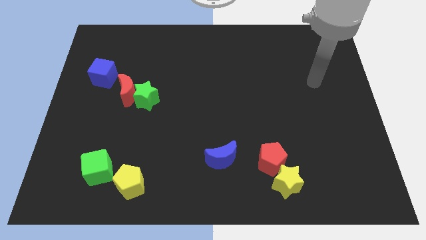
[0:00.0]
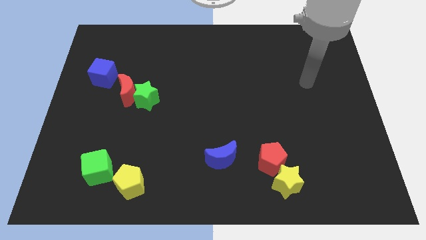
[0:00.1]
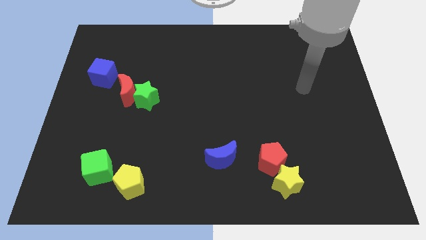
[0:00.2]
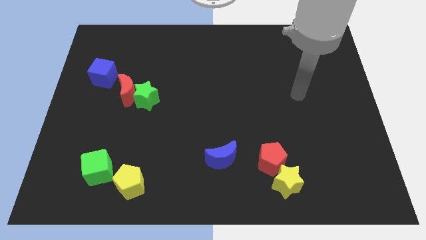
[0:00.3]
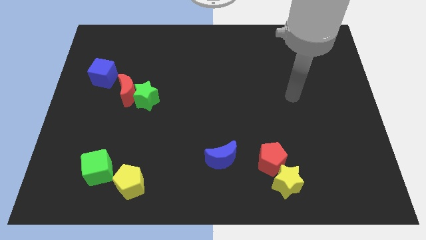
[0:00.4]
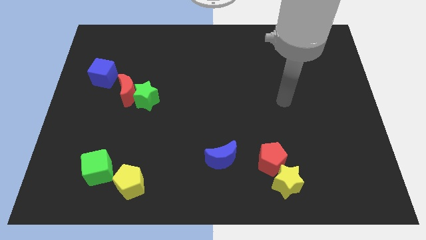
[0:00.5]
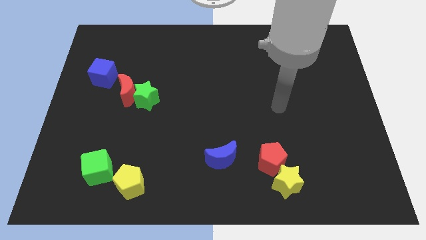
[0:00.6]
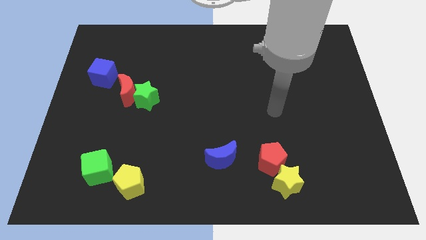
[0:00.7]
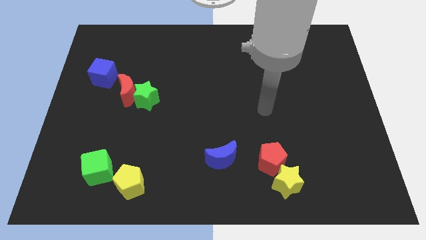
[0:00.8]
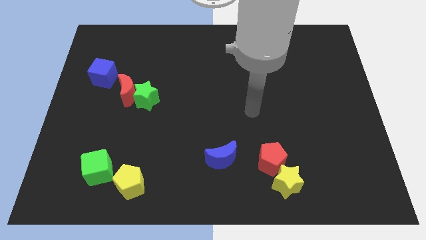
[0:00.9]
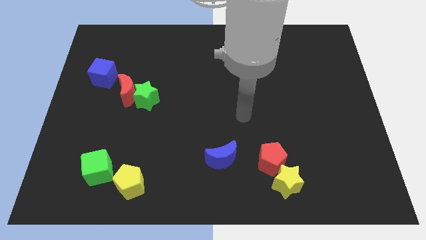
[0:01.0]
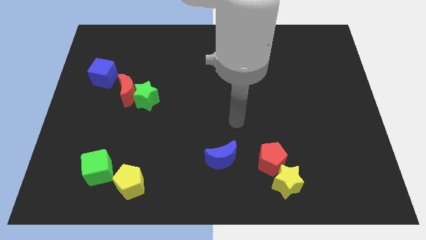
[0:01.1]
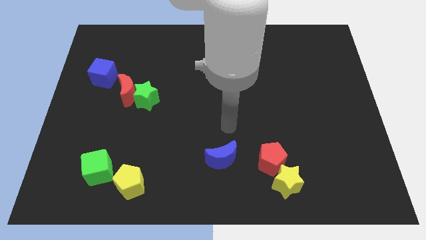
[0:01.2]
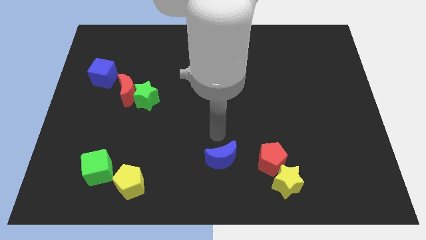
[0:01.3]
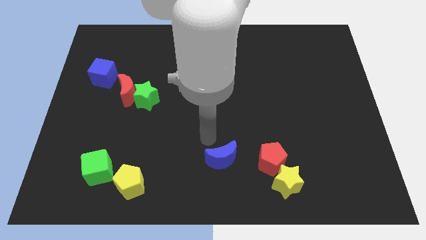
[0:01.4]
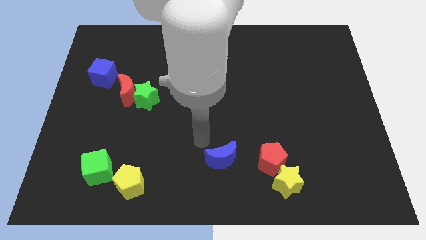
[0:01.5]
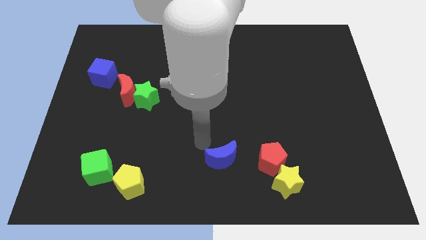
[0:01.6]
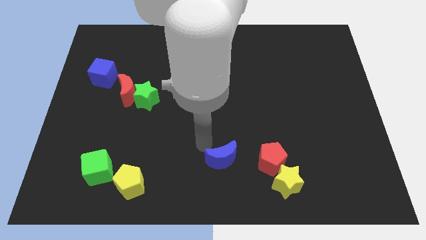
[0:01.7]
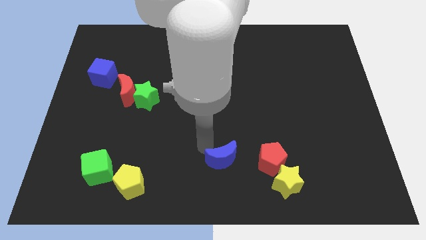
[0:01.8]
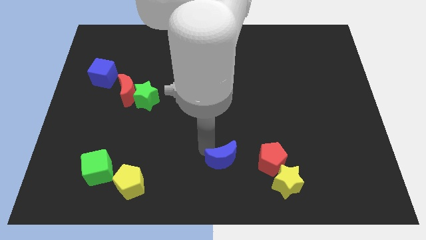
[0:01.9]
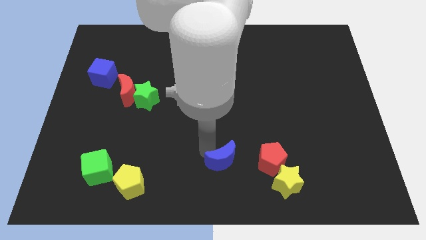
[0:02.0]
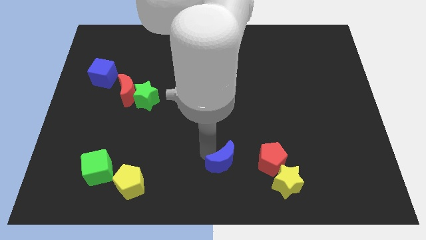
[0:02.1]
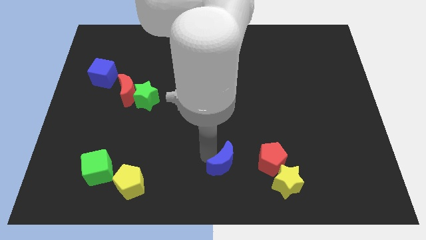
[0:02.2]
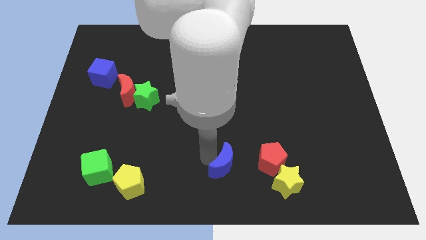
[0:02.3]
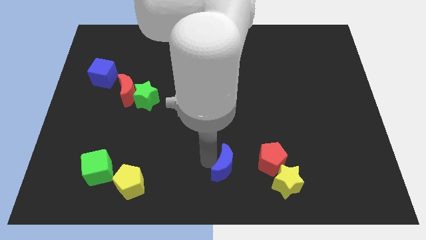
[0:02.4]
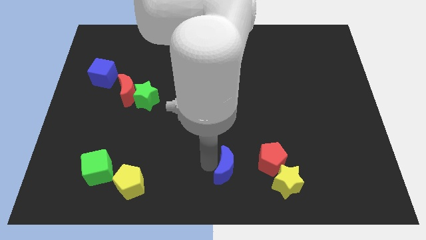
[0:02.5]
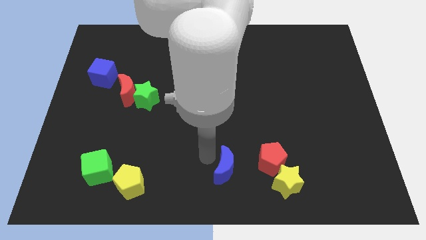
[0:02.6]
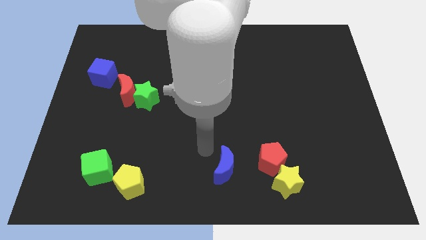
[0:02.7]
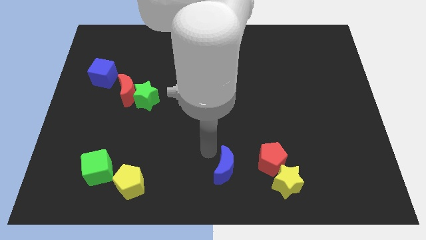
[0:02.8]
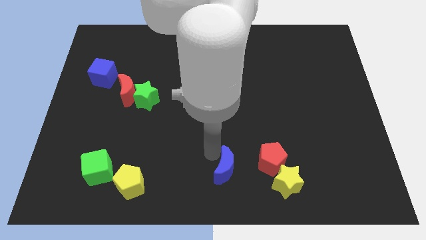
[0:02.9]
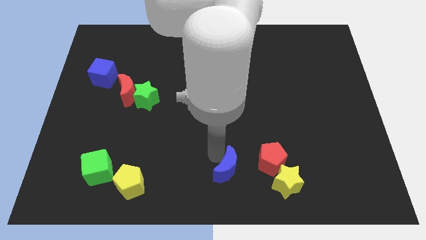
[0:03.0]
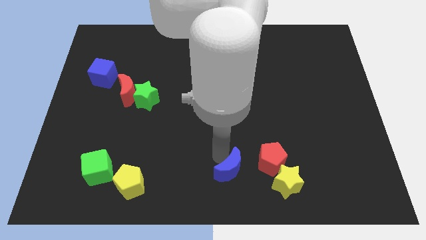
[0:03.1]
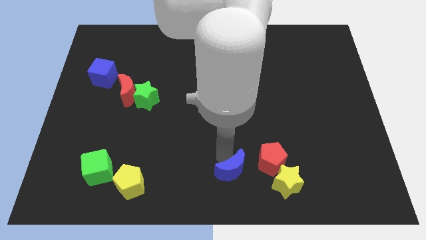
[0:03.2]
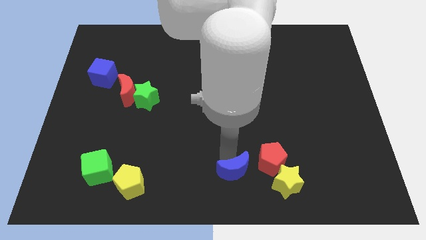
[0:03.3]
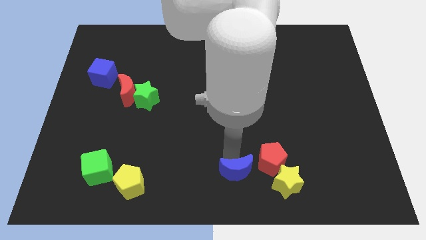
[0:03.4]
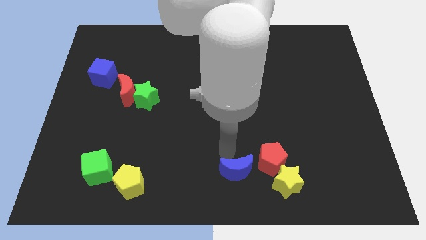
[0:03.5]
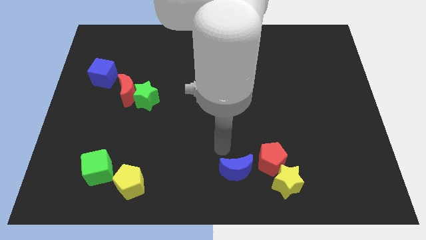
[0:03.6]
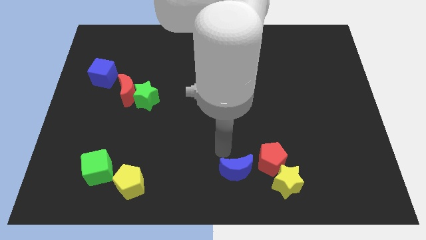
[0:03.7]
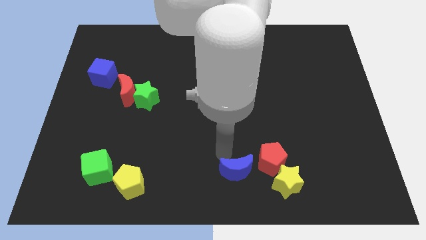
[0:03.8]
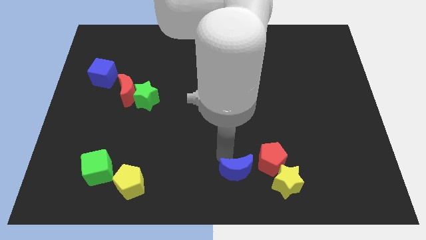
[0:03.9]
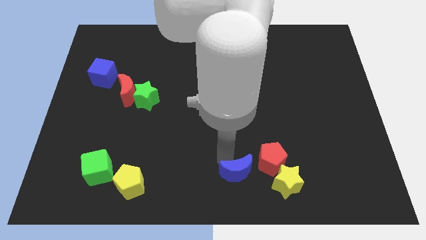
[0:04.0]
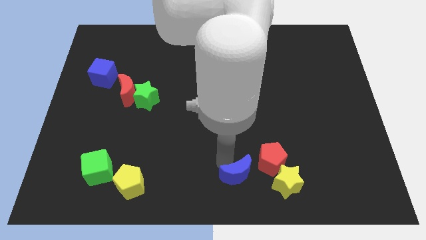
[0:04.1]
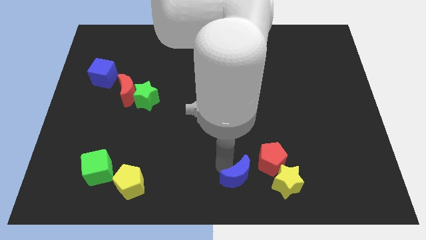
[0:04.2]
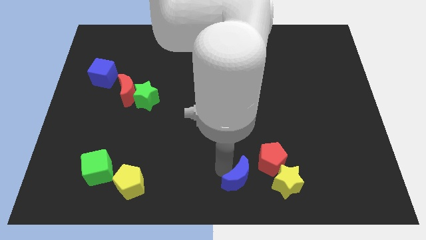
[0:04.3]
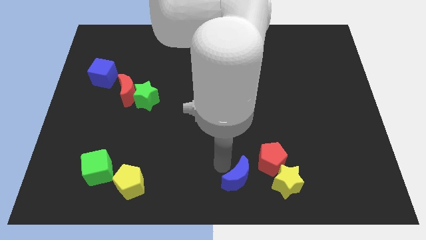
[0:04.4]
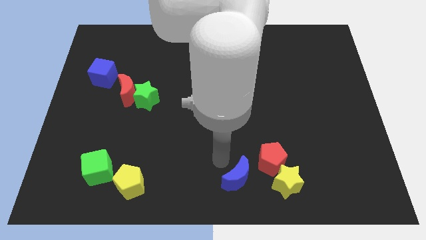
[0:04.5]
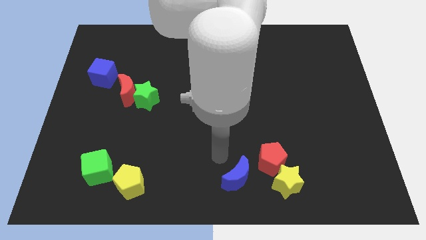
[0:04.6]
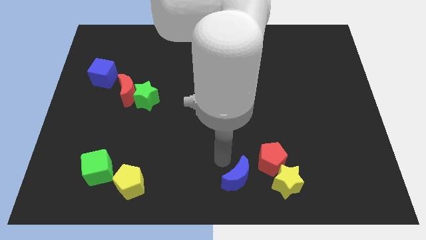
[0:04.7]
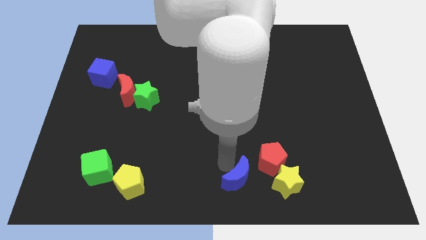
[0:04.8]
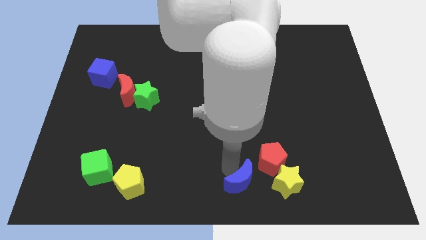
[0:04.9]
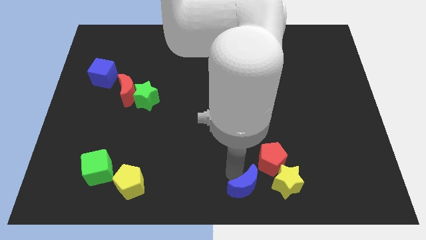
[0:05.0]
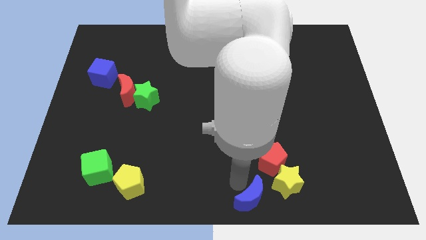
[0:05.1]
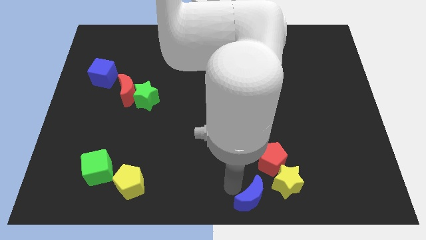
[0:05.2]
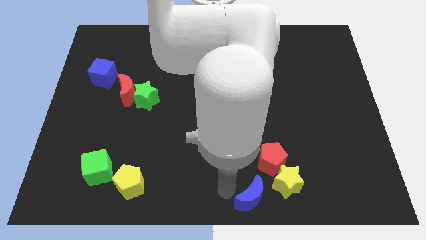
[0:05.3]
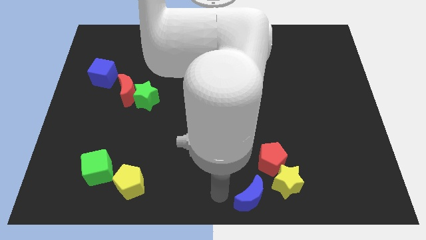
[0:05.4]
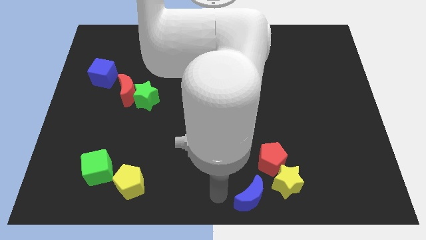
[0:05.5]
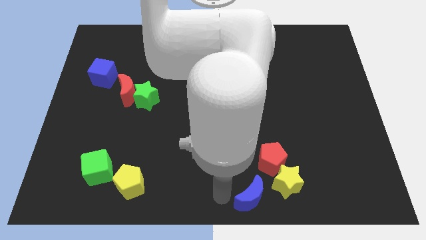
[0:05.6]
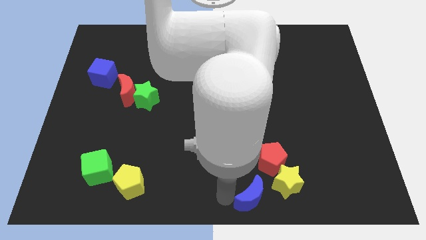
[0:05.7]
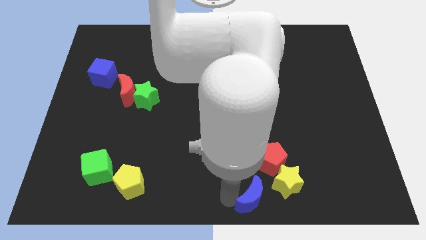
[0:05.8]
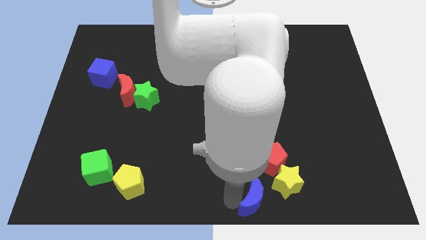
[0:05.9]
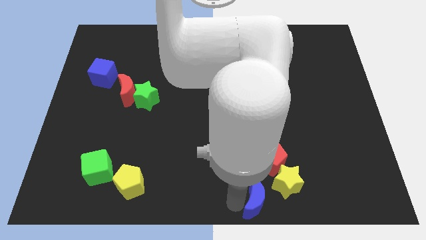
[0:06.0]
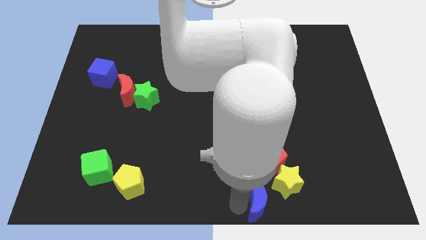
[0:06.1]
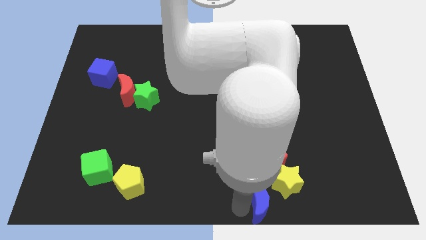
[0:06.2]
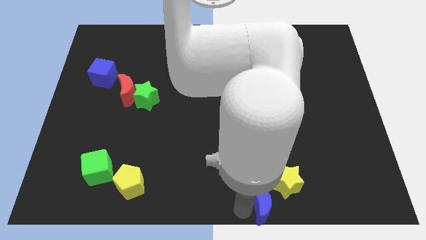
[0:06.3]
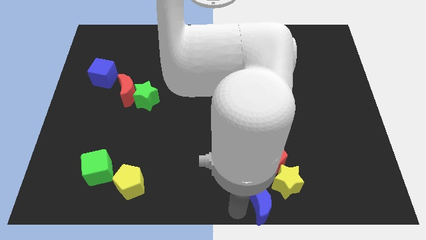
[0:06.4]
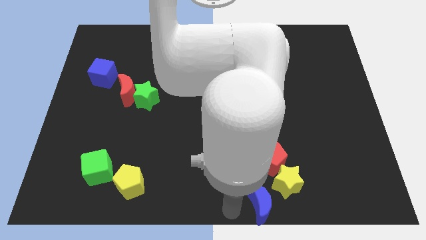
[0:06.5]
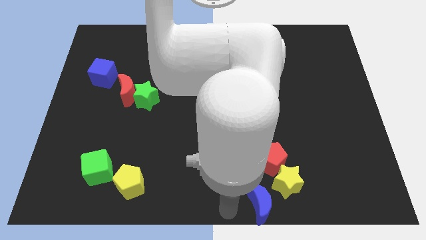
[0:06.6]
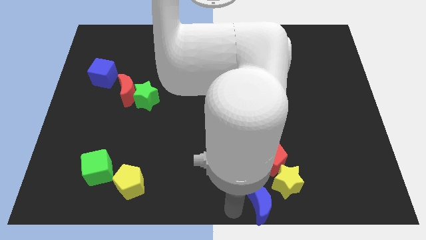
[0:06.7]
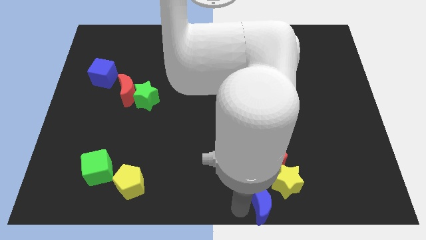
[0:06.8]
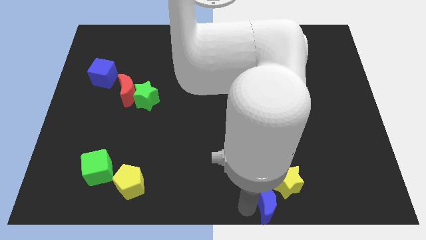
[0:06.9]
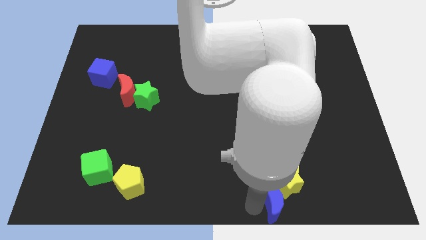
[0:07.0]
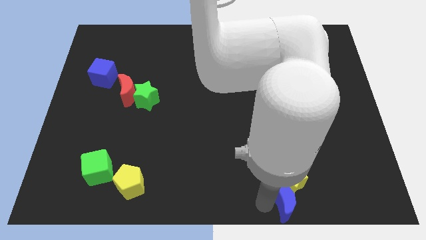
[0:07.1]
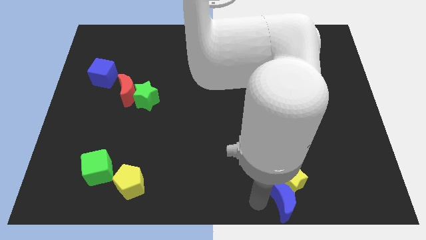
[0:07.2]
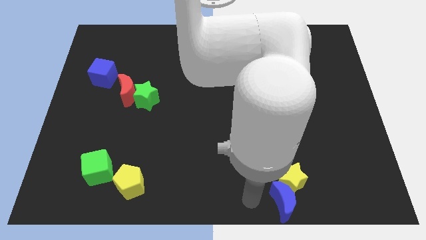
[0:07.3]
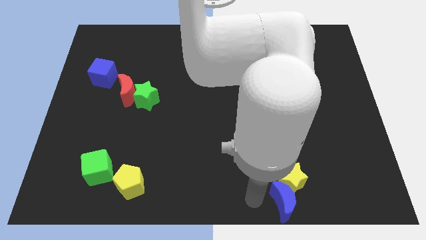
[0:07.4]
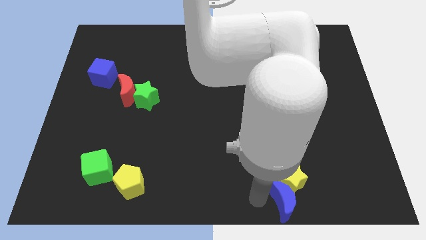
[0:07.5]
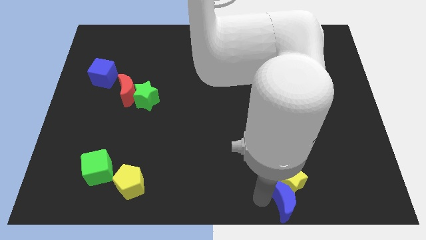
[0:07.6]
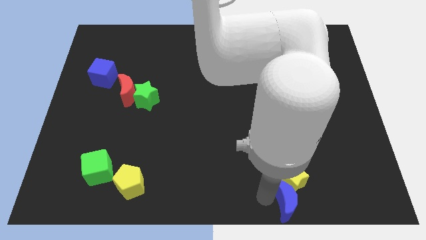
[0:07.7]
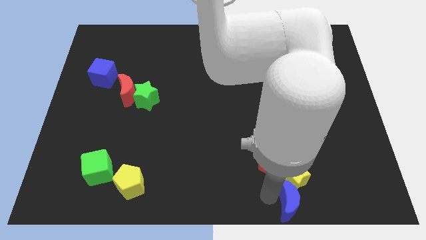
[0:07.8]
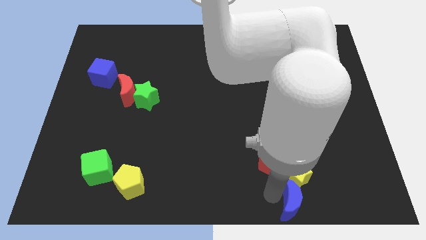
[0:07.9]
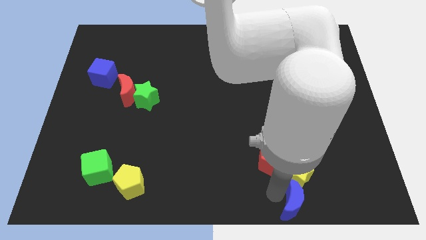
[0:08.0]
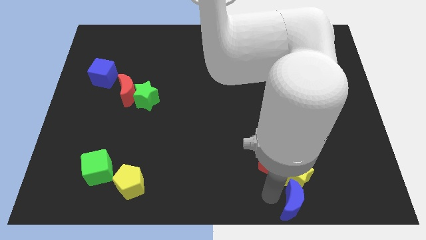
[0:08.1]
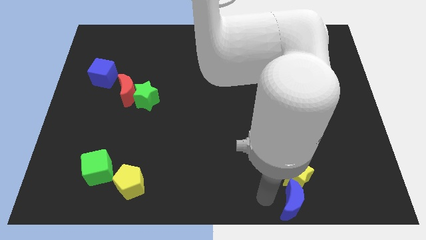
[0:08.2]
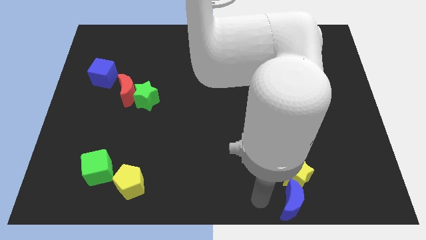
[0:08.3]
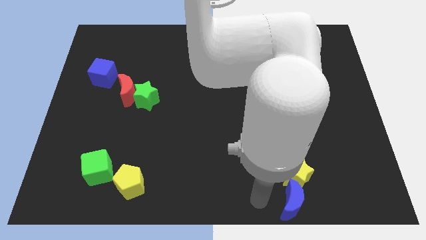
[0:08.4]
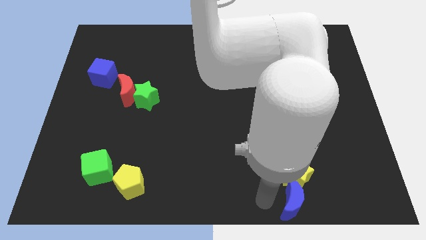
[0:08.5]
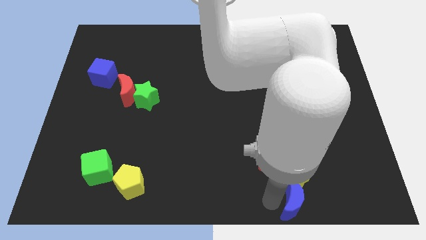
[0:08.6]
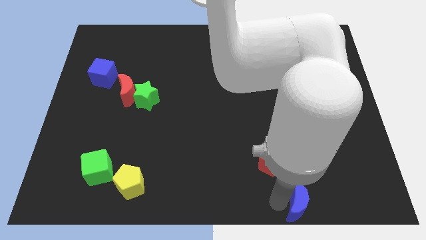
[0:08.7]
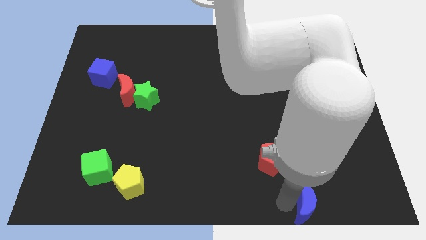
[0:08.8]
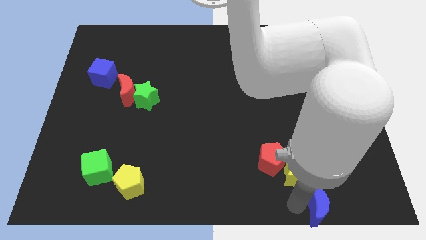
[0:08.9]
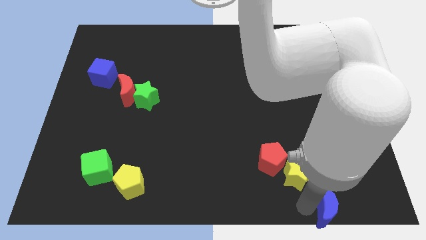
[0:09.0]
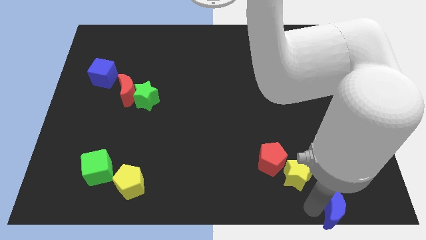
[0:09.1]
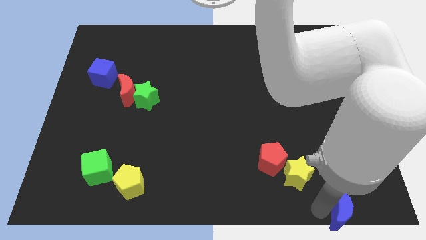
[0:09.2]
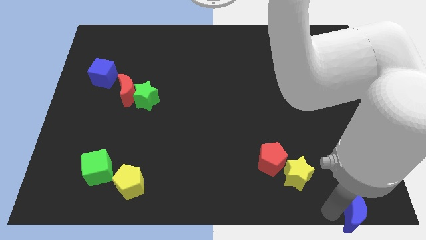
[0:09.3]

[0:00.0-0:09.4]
put the blue moon to the bottom right corner
